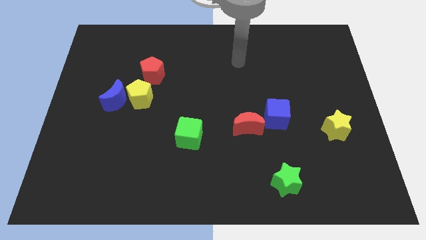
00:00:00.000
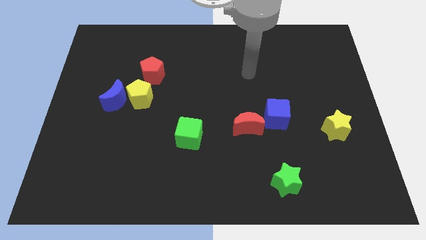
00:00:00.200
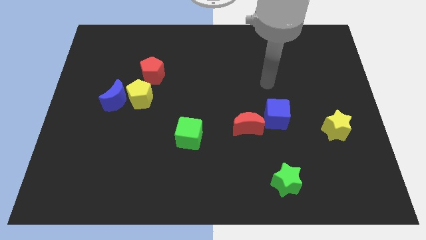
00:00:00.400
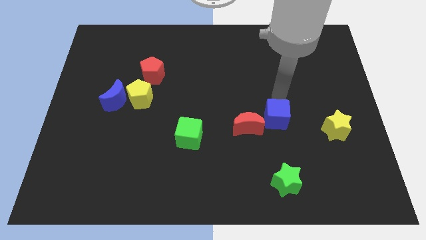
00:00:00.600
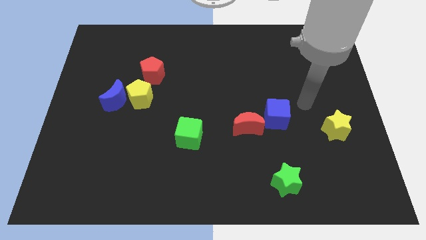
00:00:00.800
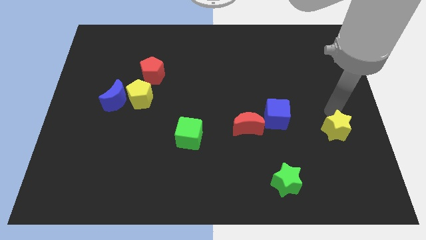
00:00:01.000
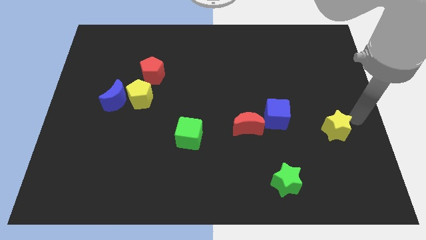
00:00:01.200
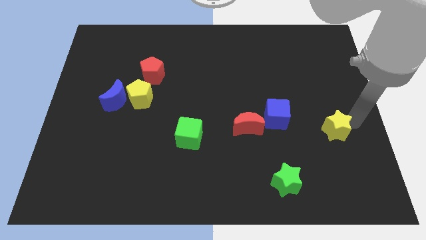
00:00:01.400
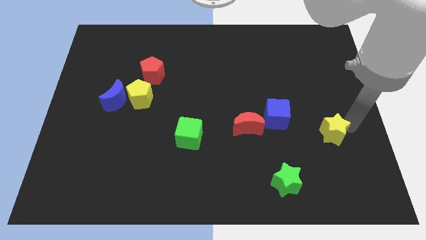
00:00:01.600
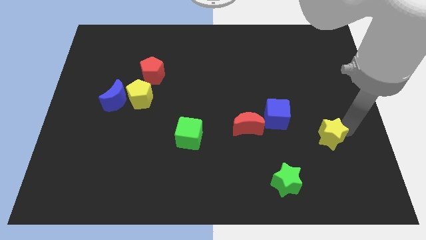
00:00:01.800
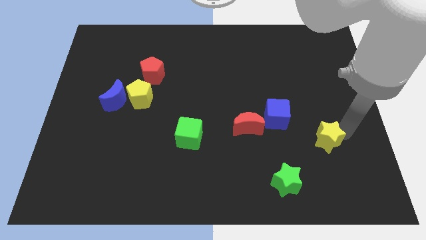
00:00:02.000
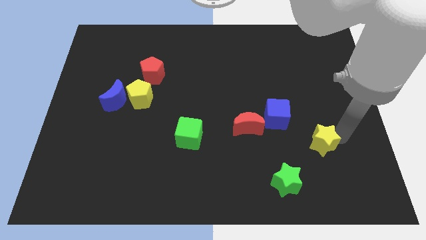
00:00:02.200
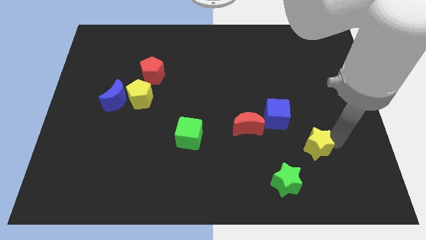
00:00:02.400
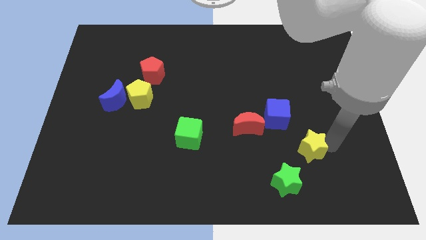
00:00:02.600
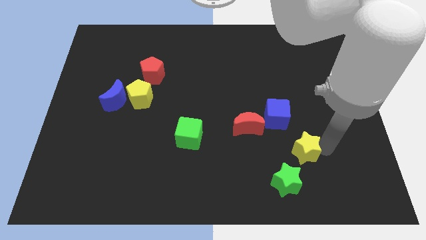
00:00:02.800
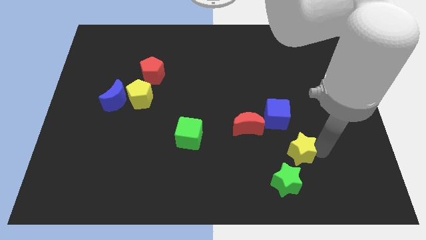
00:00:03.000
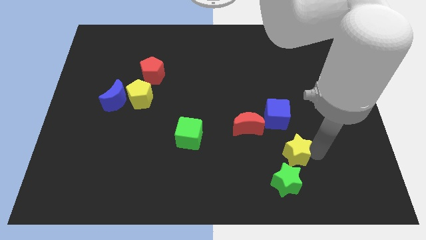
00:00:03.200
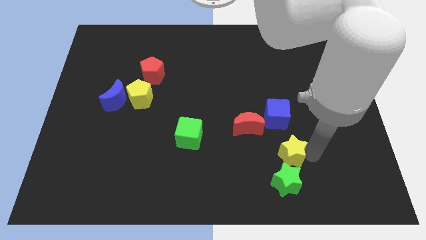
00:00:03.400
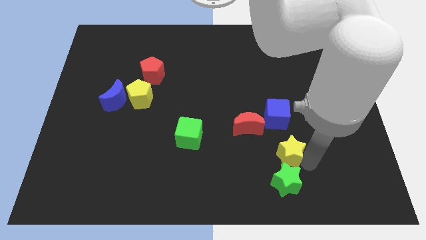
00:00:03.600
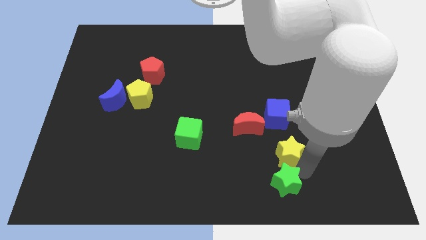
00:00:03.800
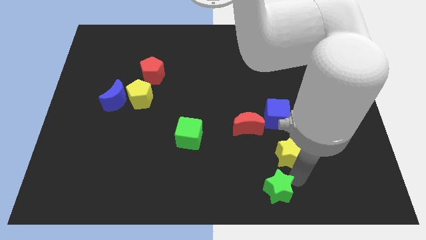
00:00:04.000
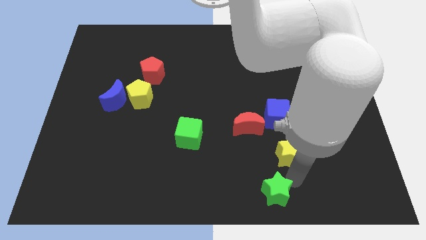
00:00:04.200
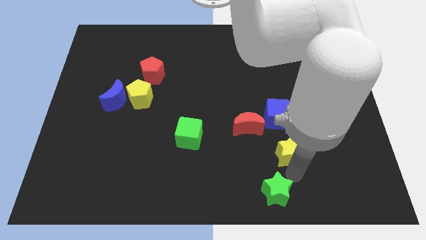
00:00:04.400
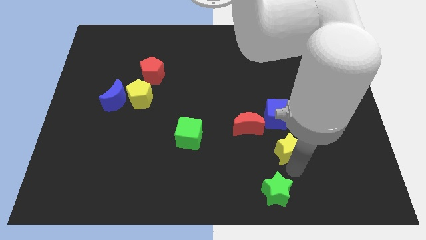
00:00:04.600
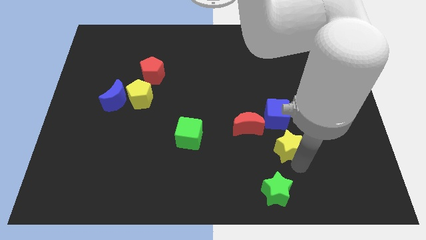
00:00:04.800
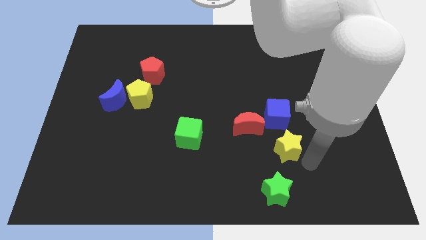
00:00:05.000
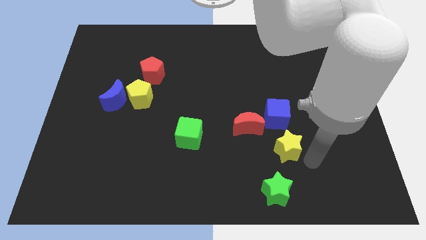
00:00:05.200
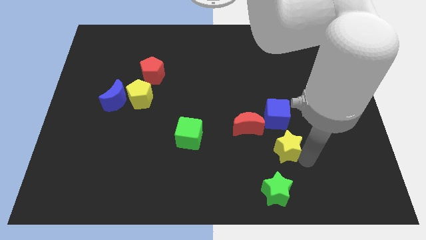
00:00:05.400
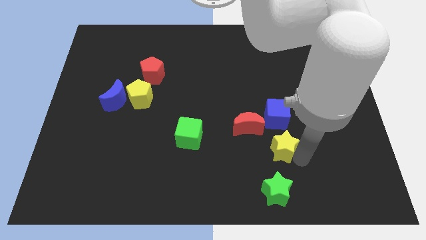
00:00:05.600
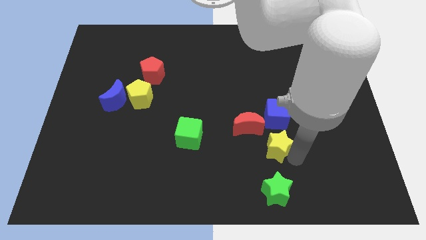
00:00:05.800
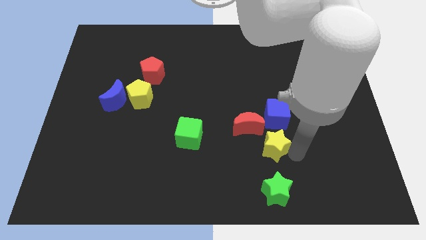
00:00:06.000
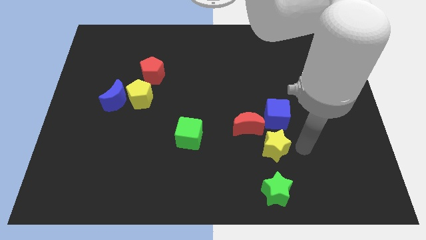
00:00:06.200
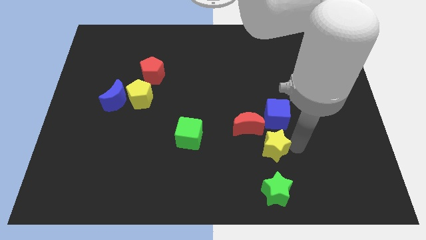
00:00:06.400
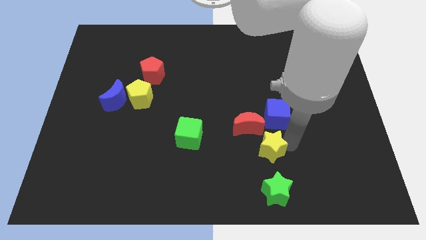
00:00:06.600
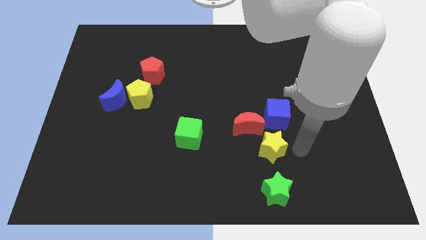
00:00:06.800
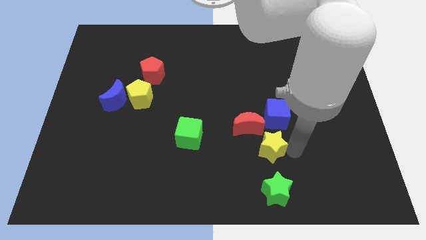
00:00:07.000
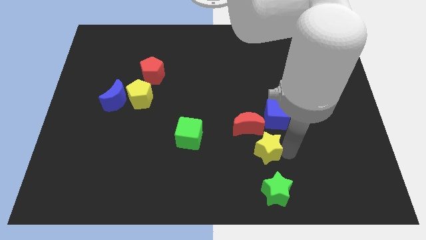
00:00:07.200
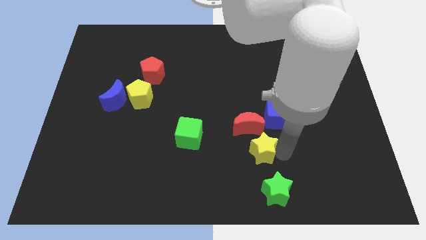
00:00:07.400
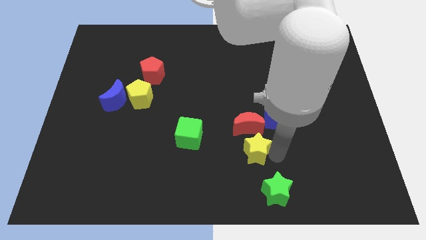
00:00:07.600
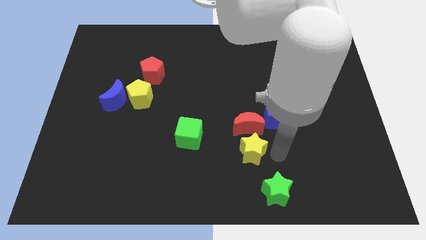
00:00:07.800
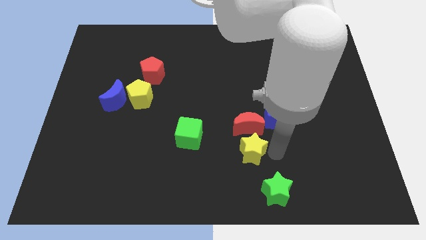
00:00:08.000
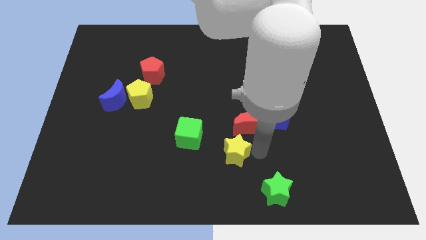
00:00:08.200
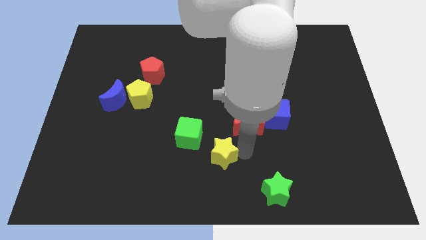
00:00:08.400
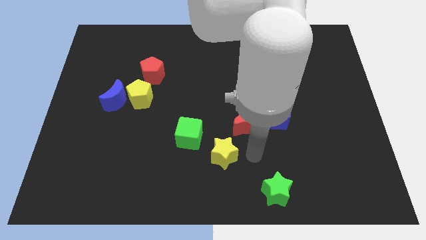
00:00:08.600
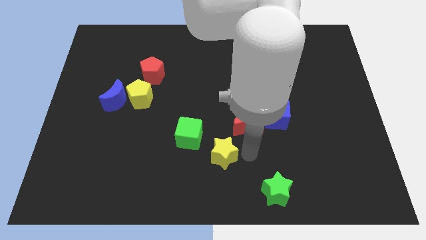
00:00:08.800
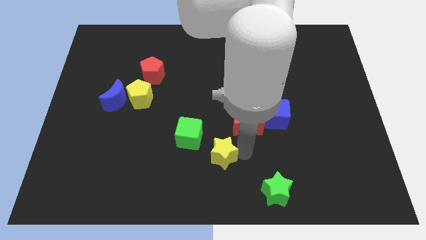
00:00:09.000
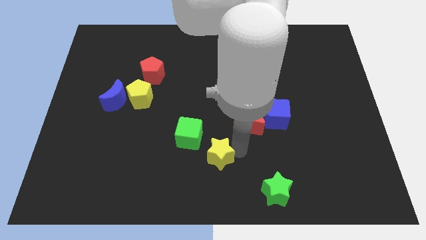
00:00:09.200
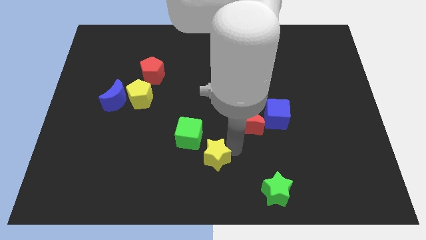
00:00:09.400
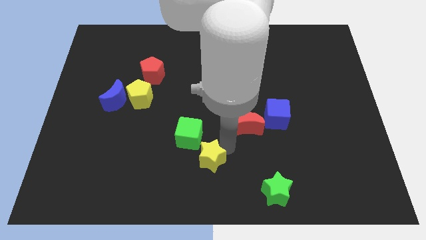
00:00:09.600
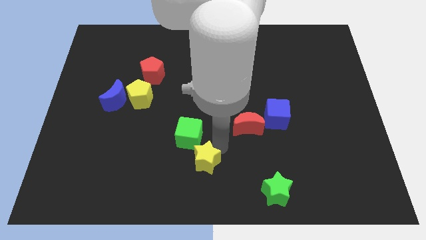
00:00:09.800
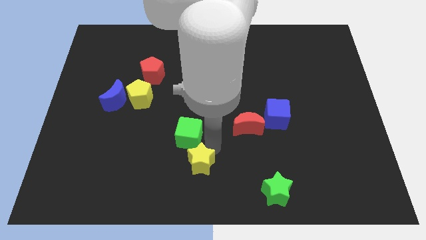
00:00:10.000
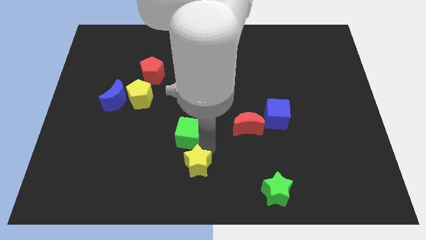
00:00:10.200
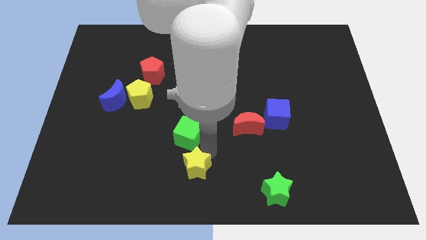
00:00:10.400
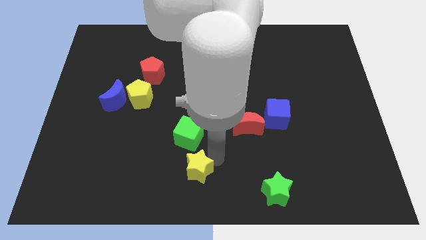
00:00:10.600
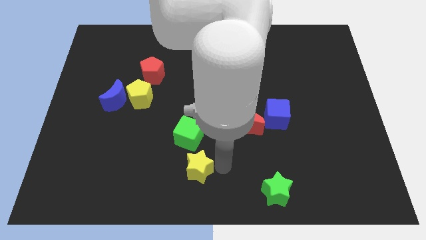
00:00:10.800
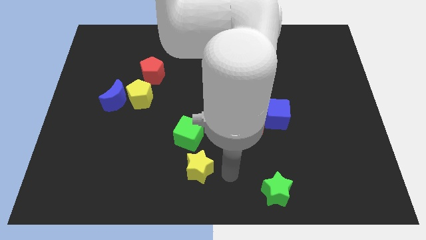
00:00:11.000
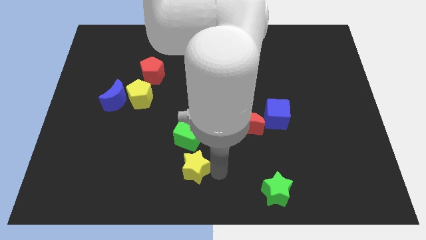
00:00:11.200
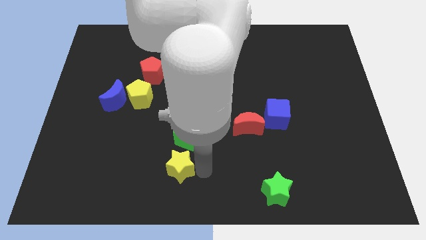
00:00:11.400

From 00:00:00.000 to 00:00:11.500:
move the yellow star diagonally down and to the left of the green cube

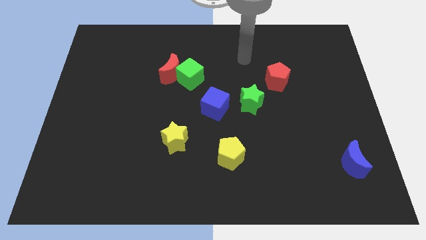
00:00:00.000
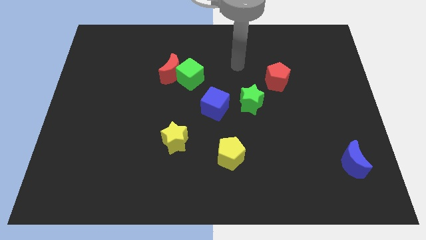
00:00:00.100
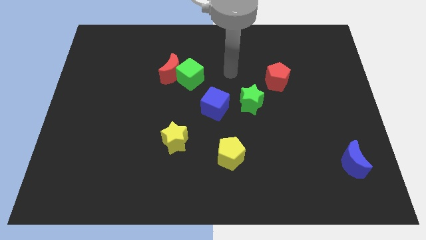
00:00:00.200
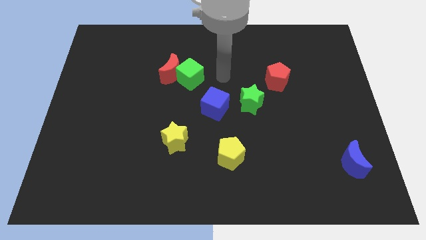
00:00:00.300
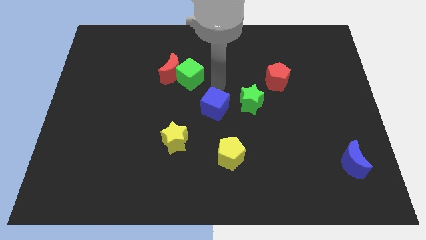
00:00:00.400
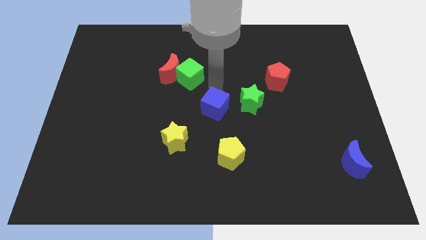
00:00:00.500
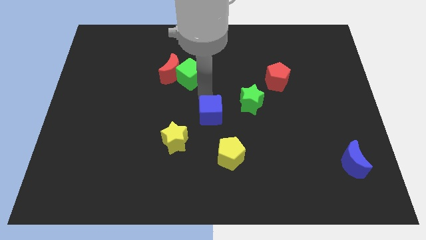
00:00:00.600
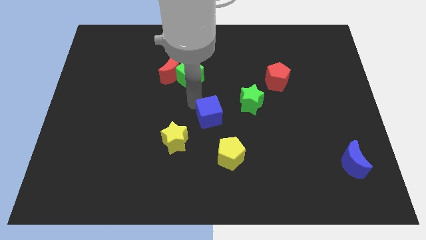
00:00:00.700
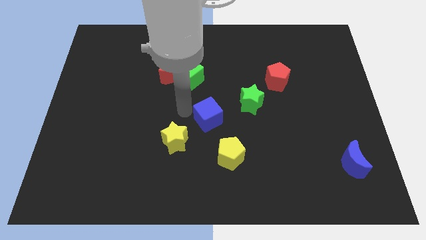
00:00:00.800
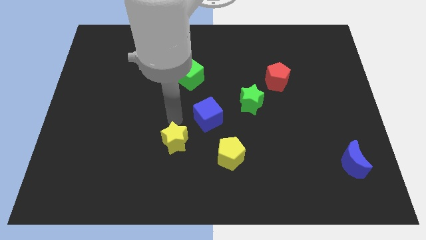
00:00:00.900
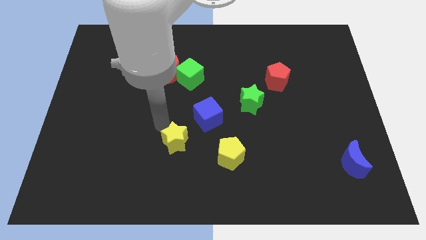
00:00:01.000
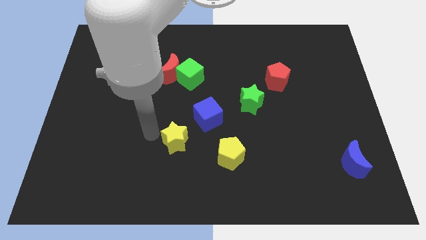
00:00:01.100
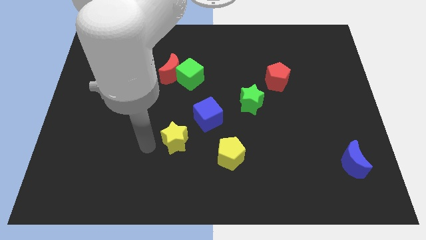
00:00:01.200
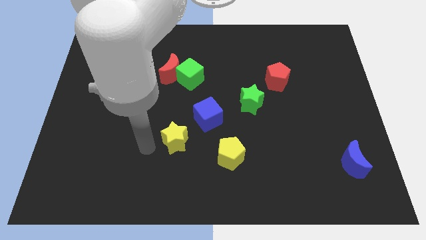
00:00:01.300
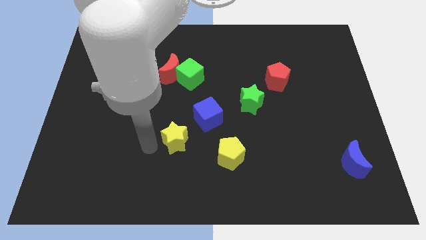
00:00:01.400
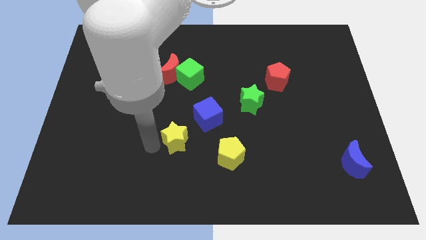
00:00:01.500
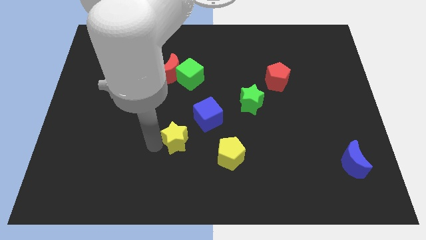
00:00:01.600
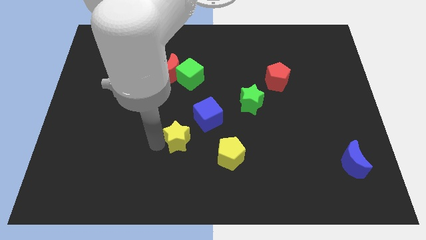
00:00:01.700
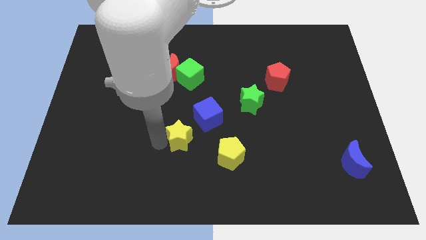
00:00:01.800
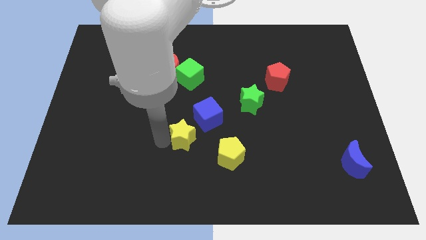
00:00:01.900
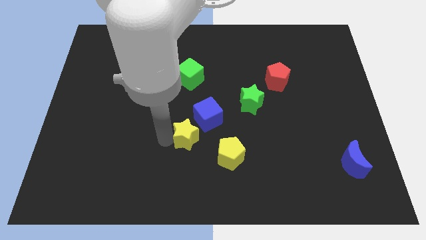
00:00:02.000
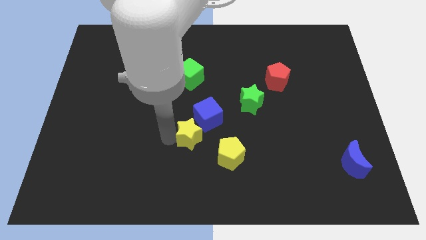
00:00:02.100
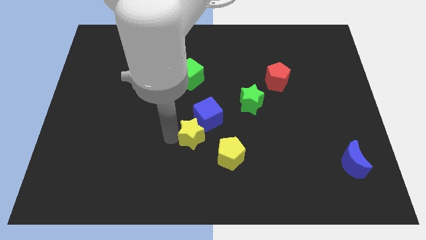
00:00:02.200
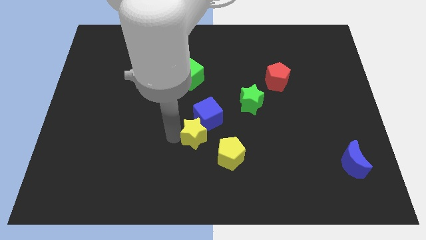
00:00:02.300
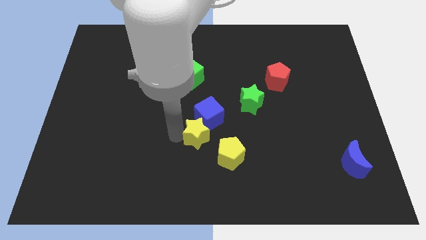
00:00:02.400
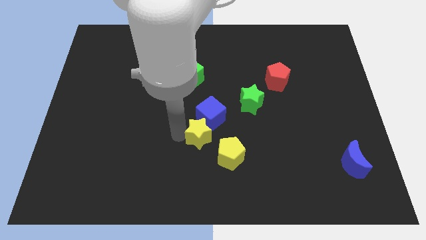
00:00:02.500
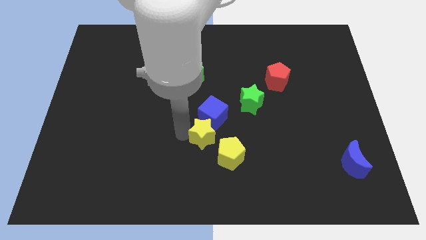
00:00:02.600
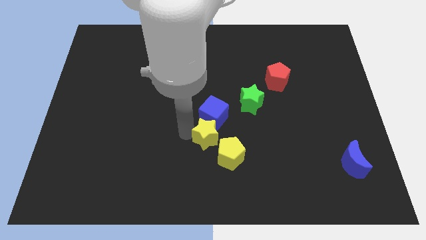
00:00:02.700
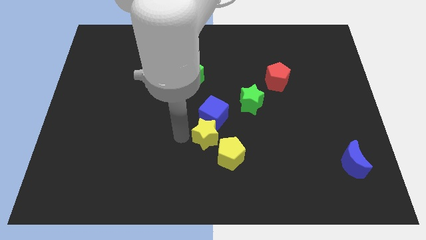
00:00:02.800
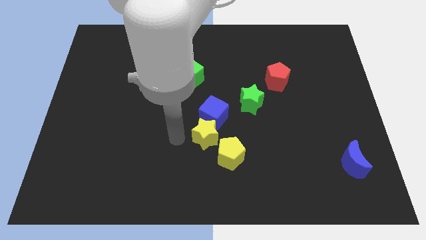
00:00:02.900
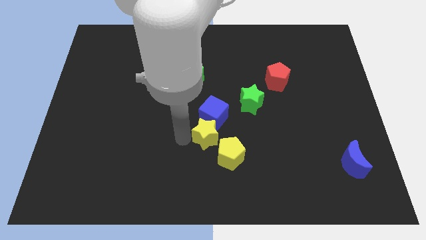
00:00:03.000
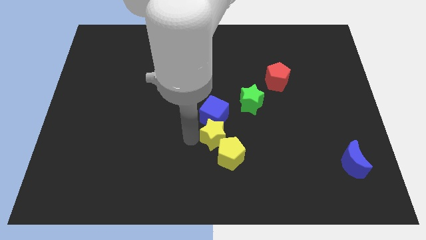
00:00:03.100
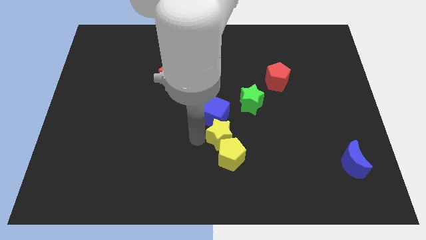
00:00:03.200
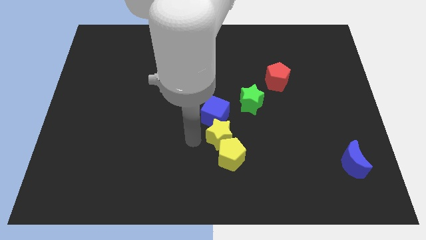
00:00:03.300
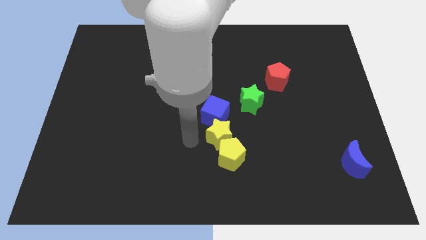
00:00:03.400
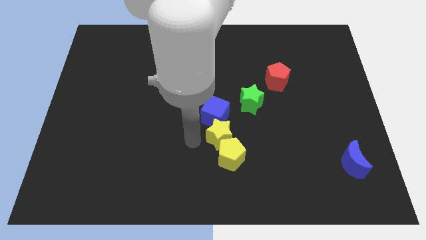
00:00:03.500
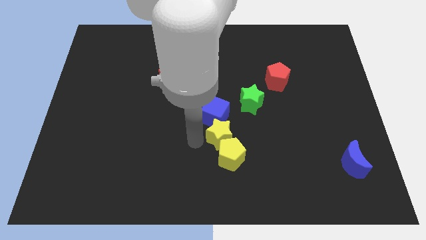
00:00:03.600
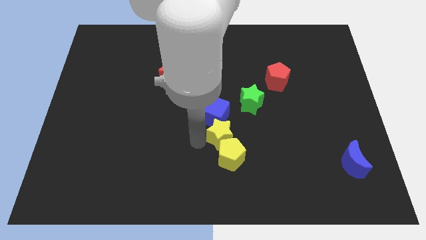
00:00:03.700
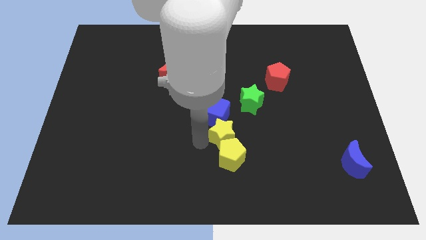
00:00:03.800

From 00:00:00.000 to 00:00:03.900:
move the yellow star diagonally up and to the right of the yellow pentagon
